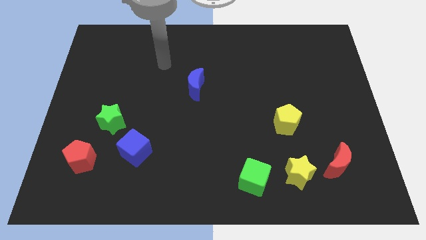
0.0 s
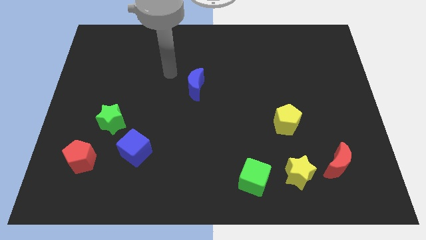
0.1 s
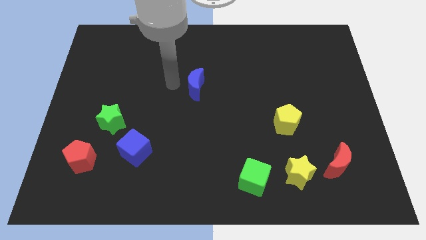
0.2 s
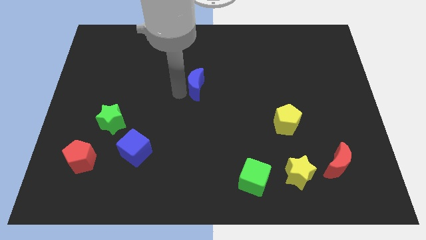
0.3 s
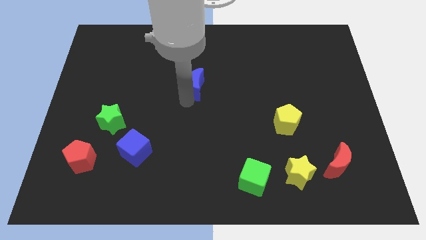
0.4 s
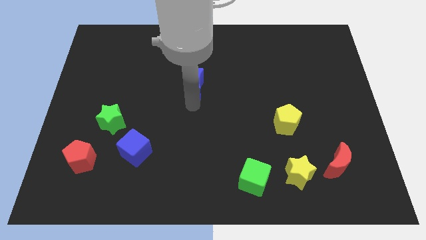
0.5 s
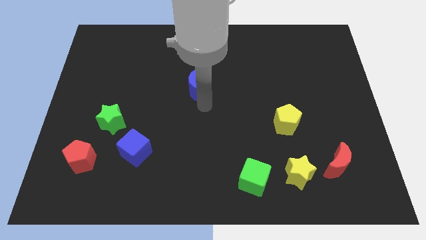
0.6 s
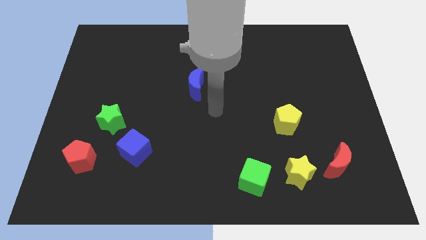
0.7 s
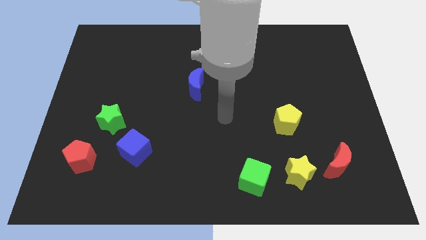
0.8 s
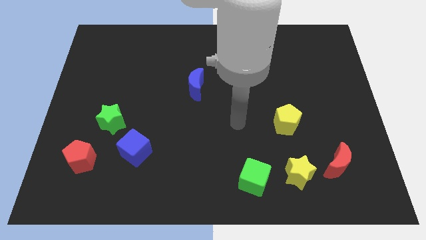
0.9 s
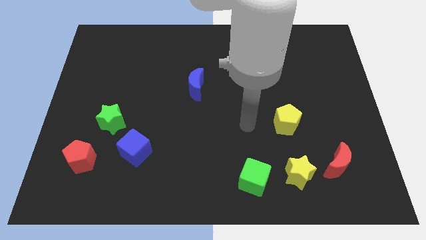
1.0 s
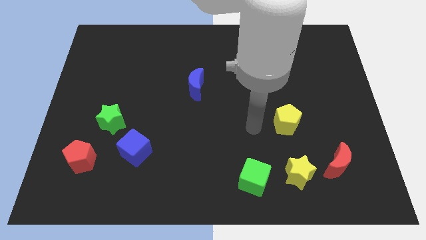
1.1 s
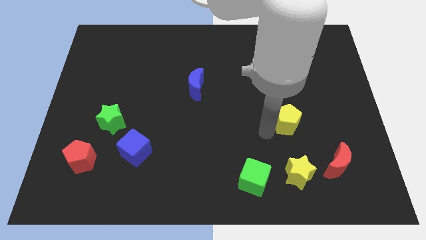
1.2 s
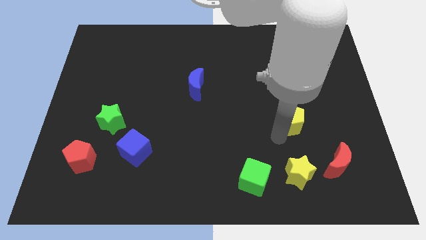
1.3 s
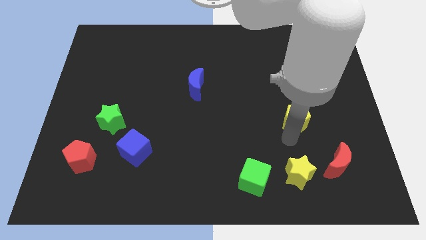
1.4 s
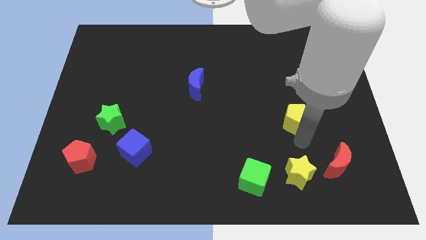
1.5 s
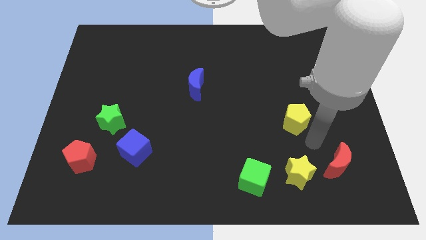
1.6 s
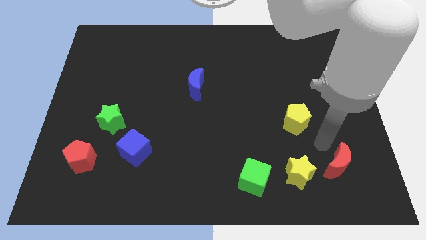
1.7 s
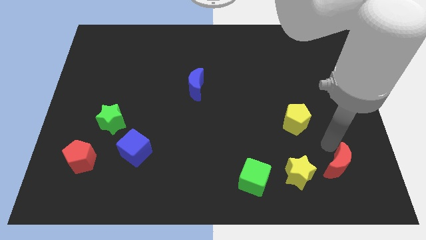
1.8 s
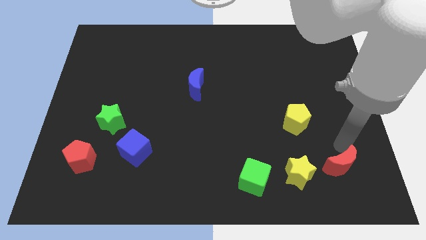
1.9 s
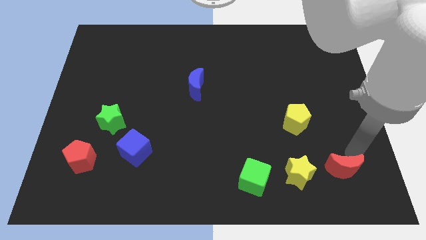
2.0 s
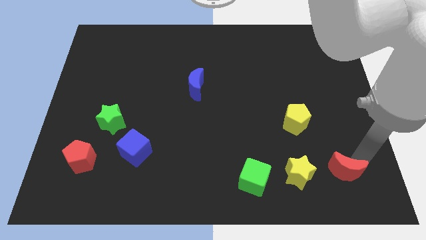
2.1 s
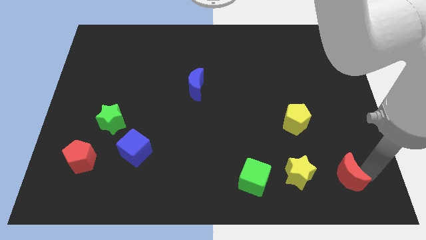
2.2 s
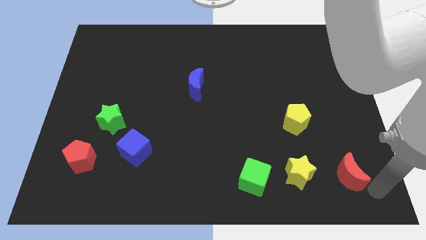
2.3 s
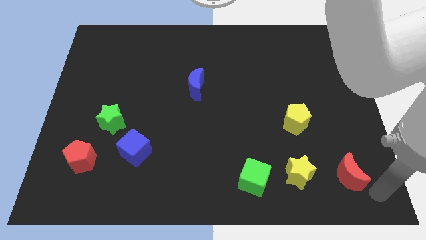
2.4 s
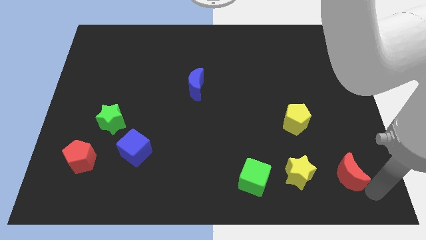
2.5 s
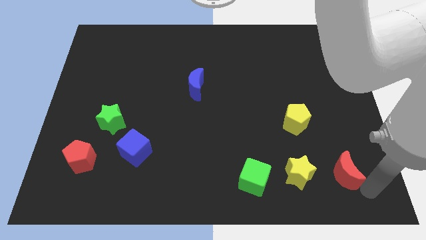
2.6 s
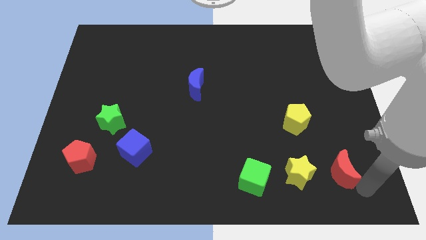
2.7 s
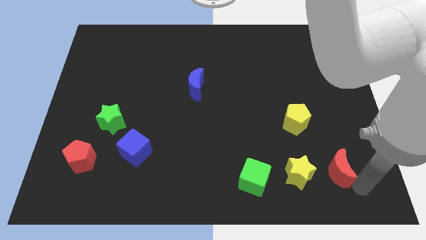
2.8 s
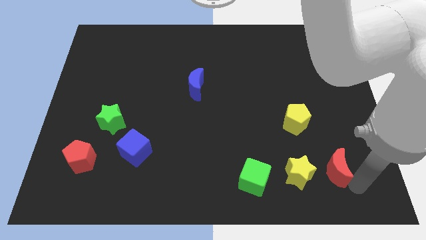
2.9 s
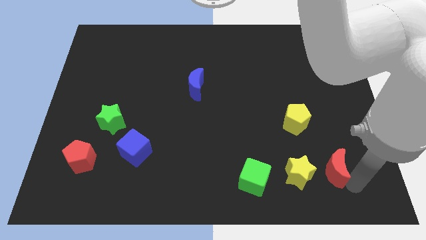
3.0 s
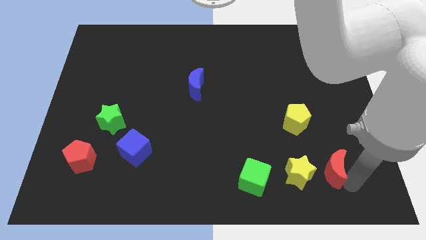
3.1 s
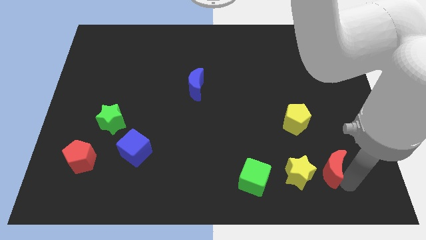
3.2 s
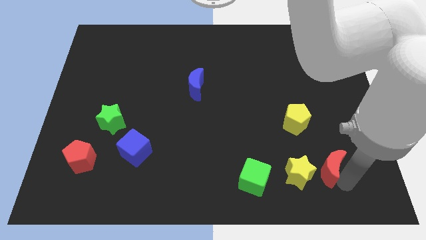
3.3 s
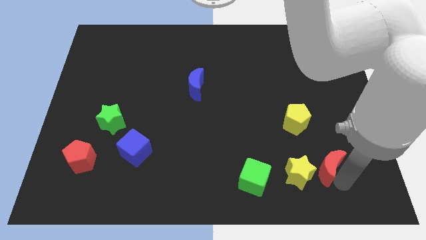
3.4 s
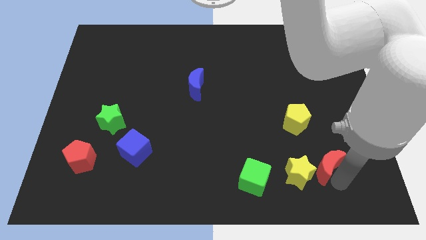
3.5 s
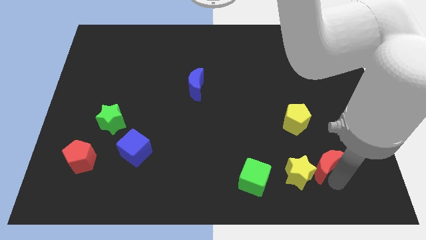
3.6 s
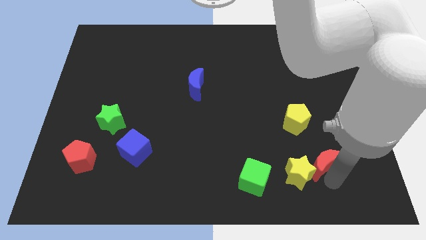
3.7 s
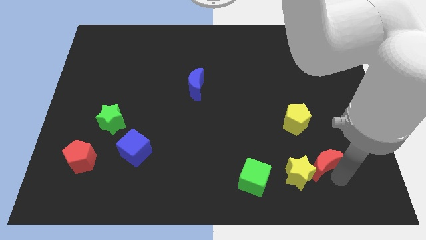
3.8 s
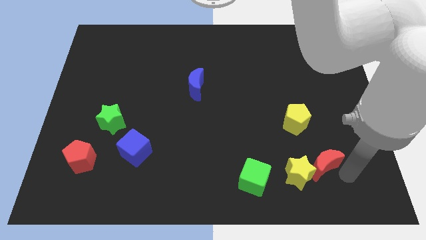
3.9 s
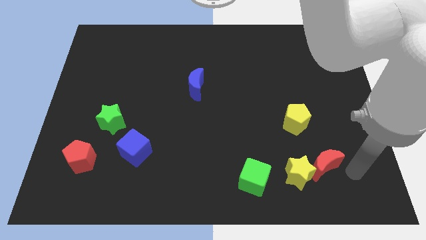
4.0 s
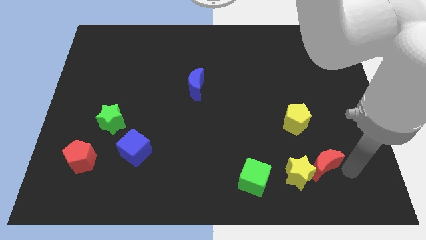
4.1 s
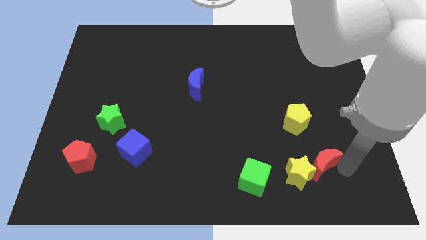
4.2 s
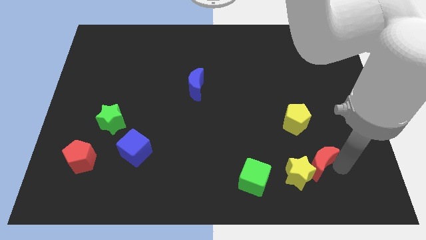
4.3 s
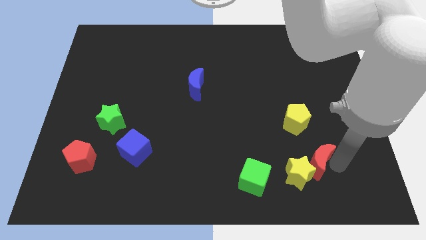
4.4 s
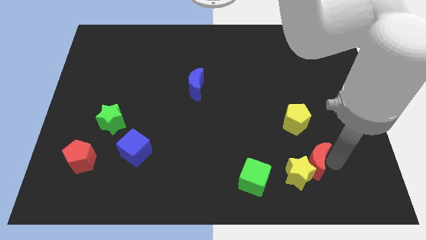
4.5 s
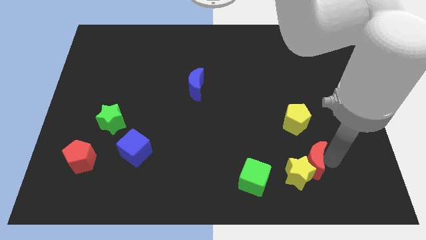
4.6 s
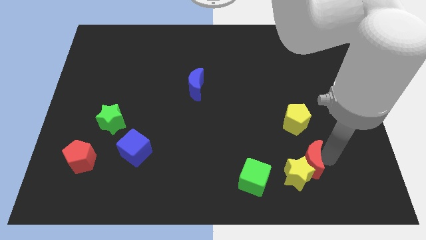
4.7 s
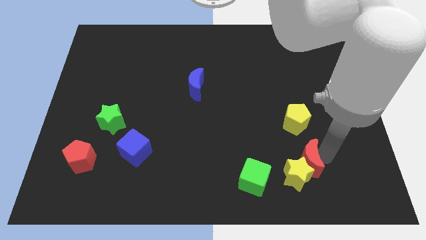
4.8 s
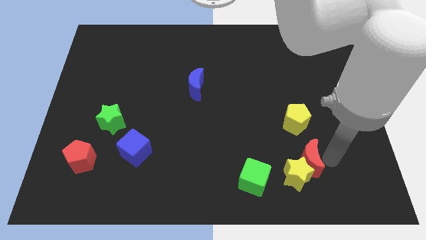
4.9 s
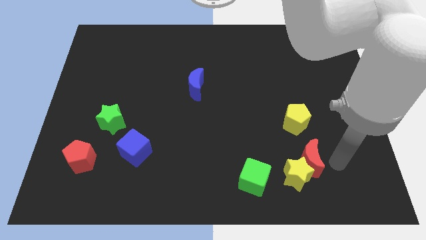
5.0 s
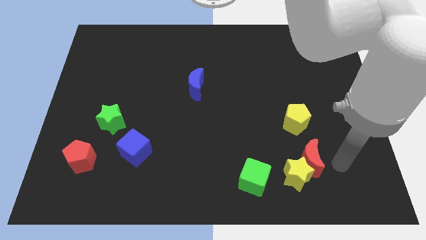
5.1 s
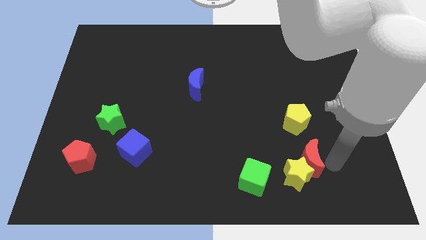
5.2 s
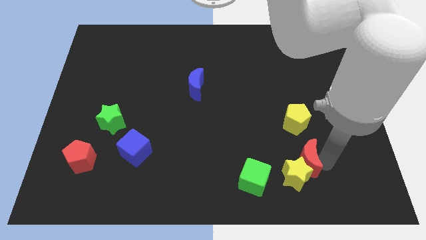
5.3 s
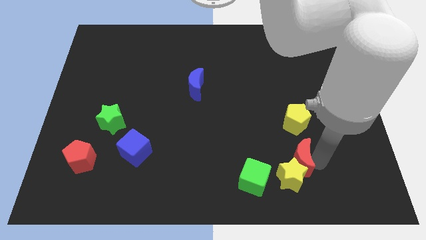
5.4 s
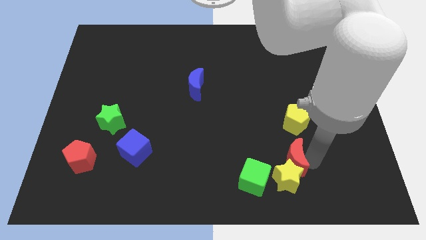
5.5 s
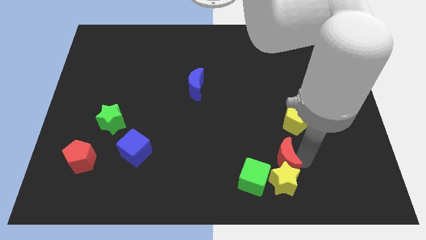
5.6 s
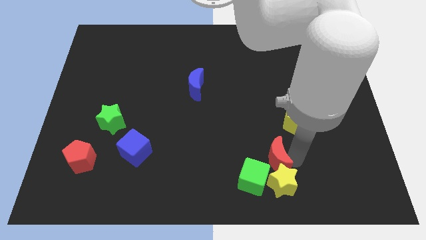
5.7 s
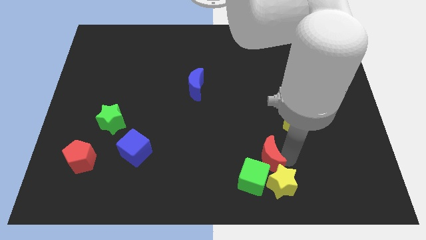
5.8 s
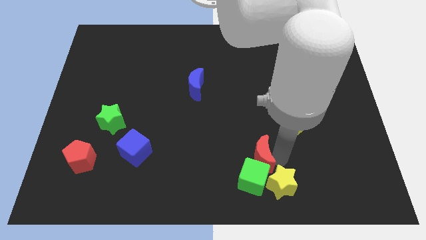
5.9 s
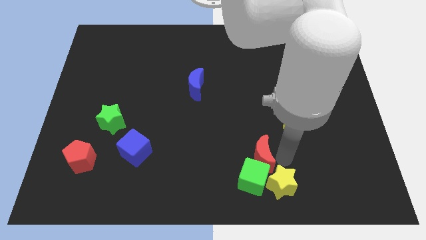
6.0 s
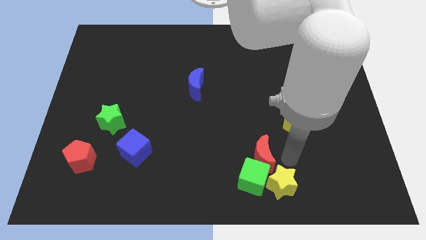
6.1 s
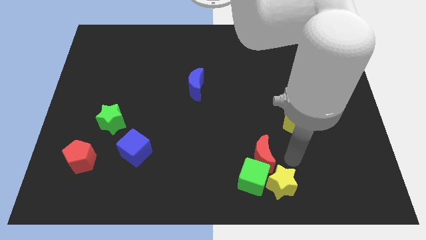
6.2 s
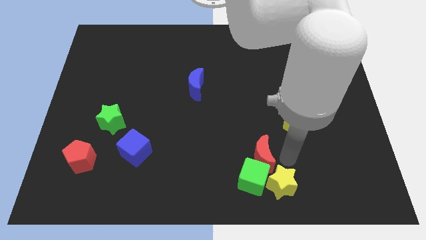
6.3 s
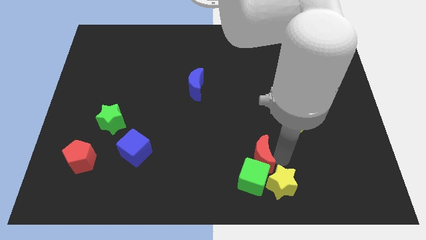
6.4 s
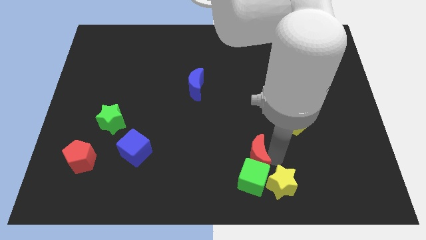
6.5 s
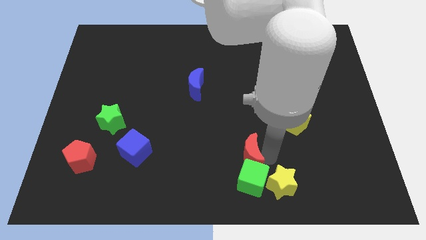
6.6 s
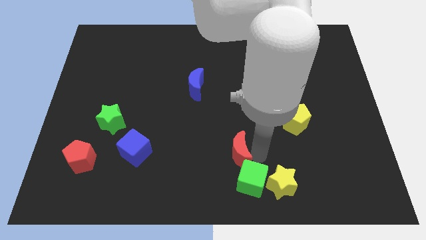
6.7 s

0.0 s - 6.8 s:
slide the red moon left

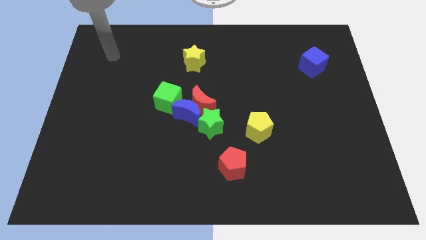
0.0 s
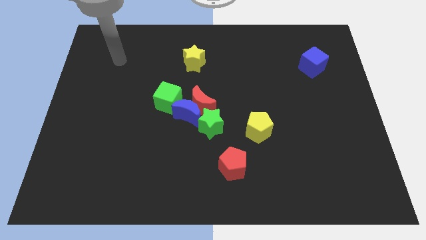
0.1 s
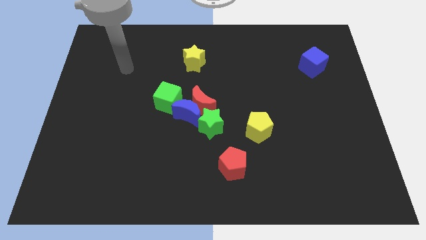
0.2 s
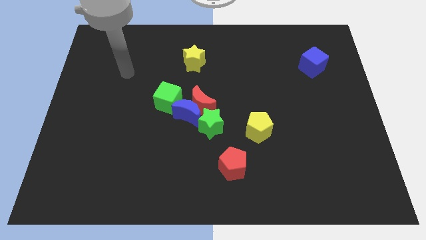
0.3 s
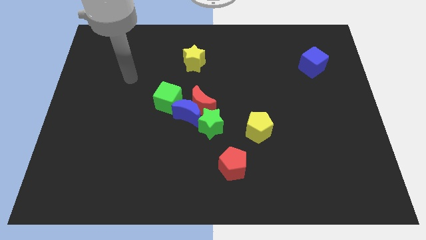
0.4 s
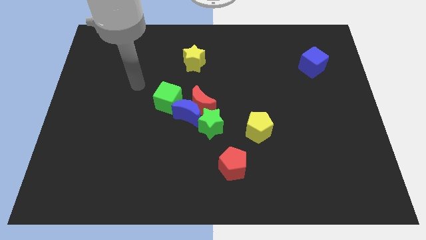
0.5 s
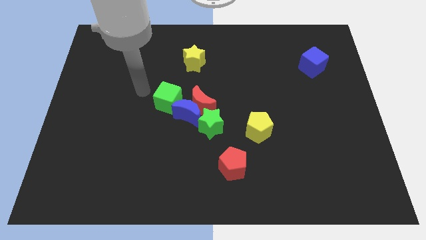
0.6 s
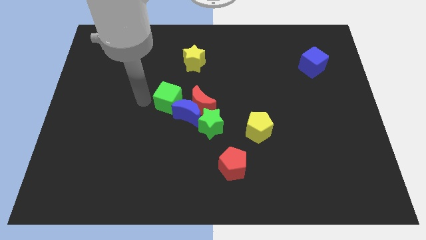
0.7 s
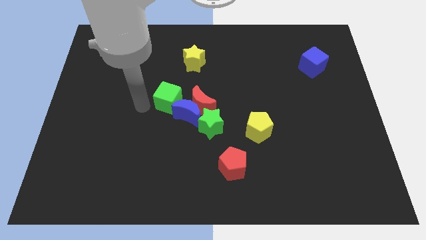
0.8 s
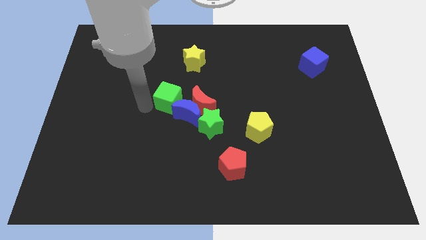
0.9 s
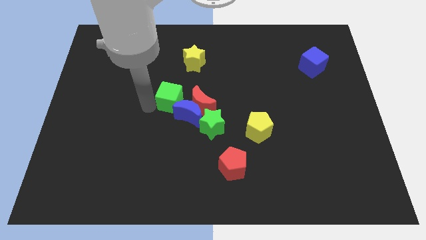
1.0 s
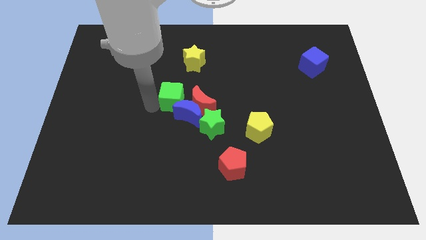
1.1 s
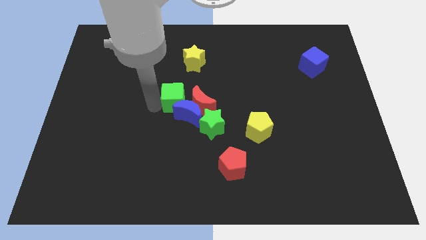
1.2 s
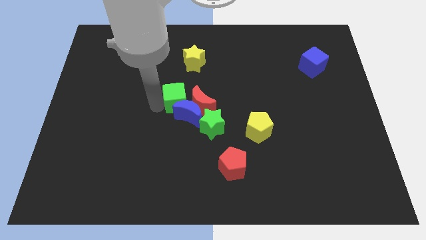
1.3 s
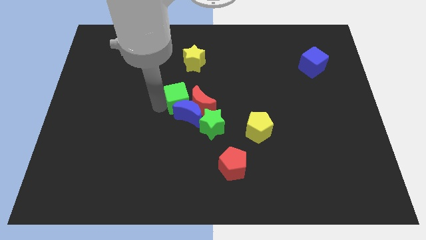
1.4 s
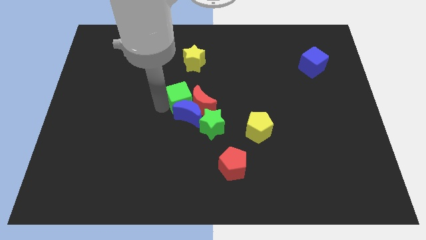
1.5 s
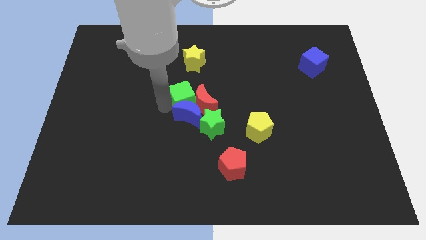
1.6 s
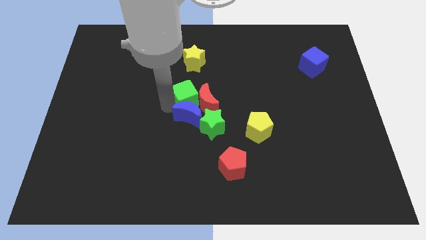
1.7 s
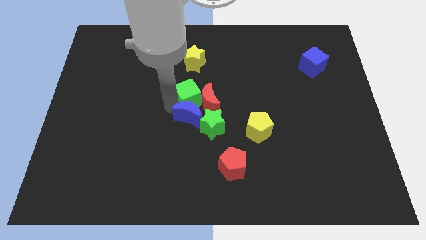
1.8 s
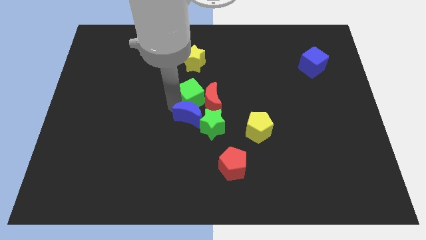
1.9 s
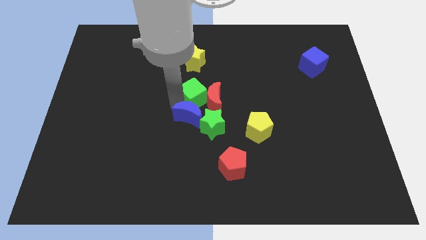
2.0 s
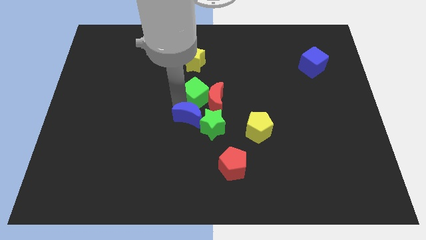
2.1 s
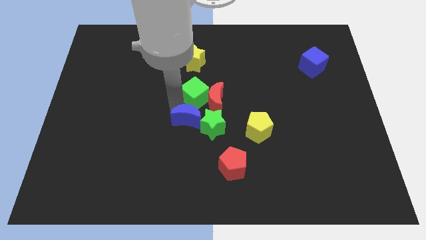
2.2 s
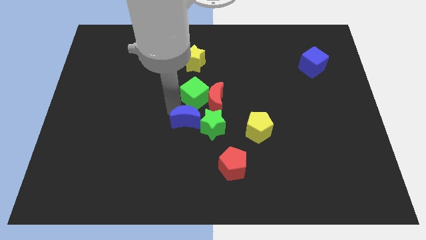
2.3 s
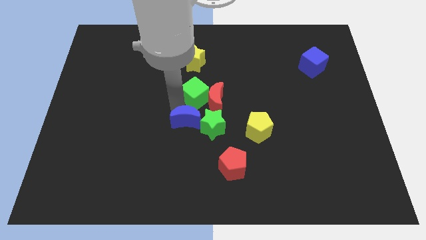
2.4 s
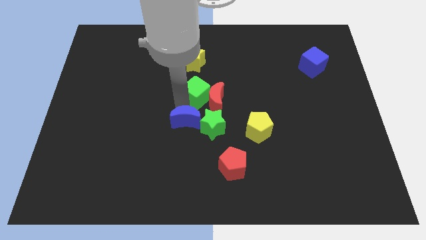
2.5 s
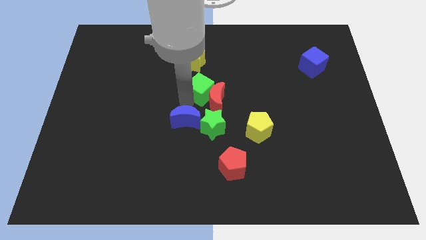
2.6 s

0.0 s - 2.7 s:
push the green cube somewhat to the right
